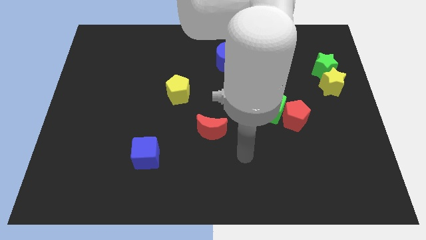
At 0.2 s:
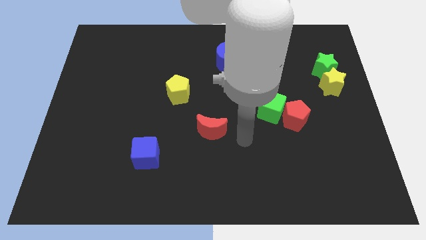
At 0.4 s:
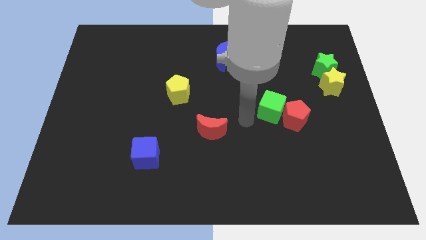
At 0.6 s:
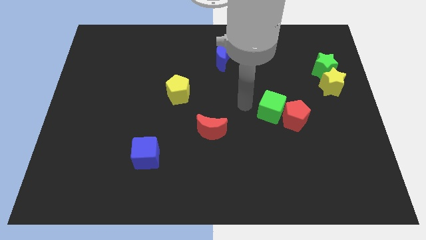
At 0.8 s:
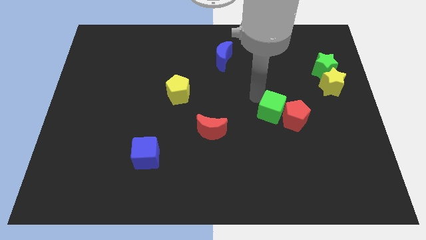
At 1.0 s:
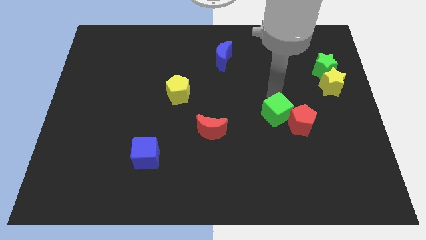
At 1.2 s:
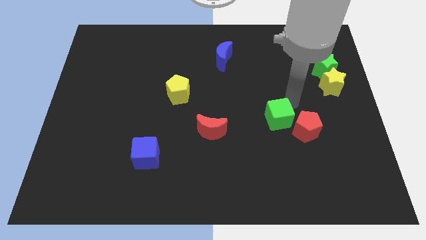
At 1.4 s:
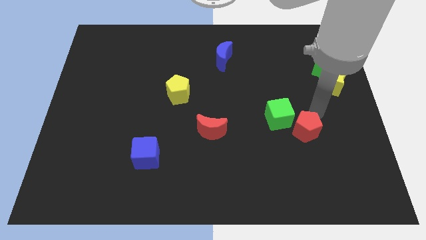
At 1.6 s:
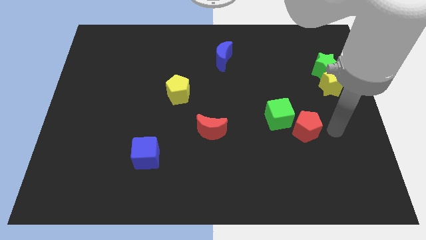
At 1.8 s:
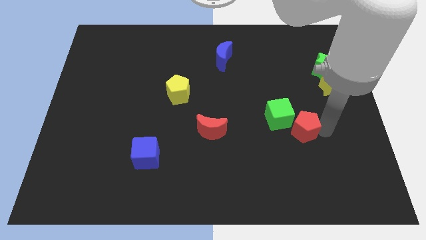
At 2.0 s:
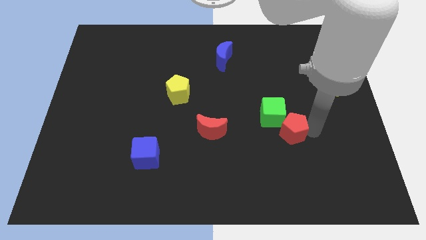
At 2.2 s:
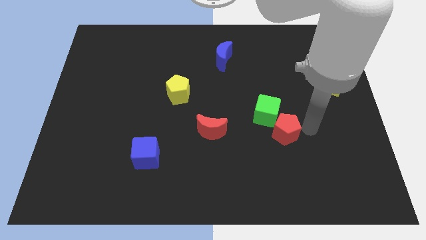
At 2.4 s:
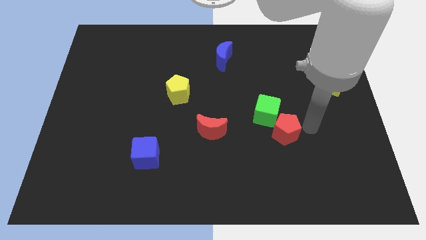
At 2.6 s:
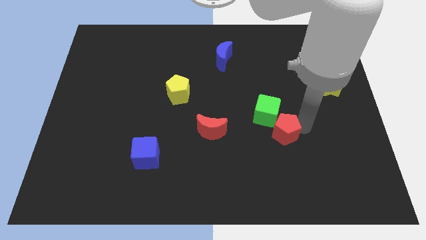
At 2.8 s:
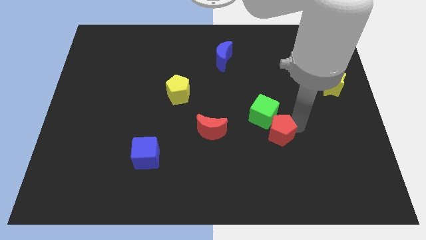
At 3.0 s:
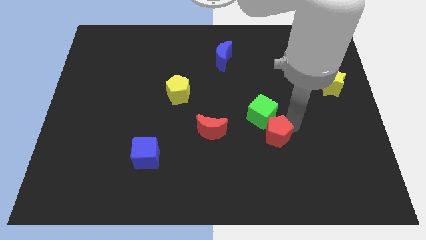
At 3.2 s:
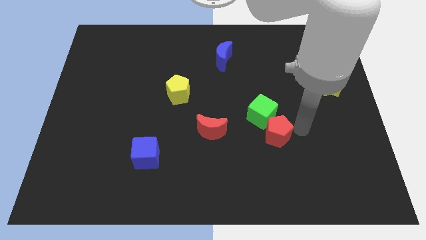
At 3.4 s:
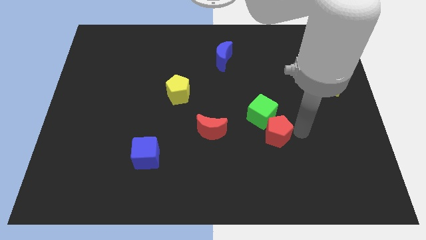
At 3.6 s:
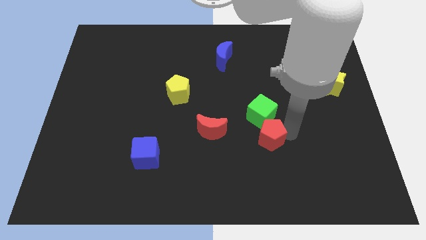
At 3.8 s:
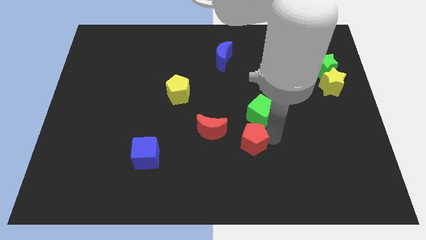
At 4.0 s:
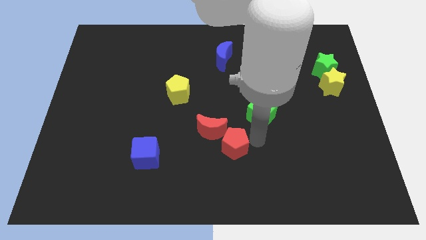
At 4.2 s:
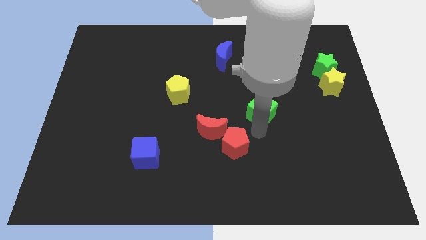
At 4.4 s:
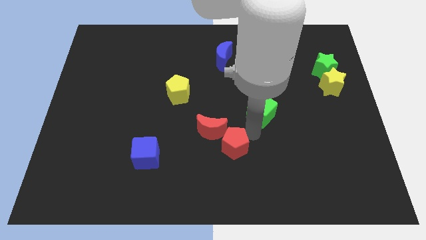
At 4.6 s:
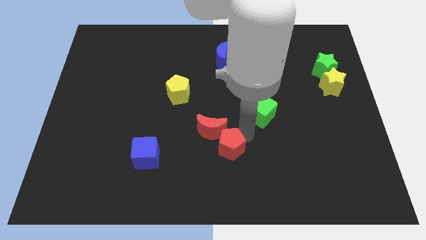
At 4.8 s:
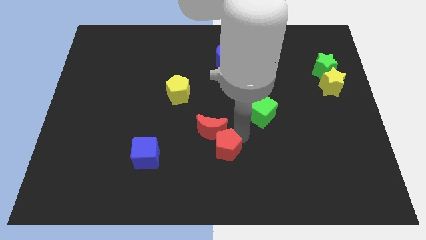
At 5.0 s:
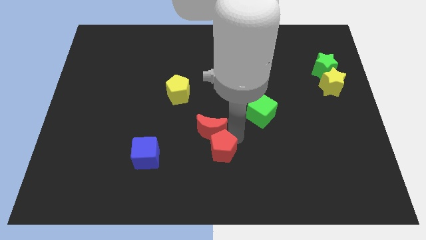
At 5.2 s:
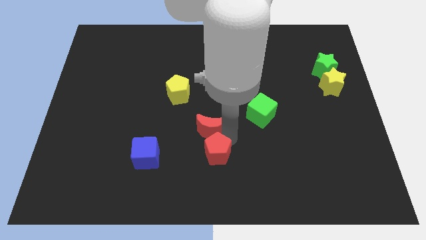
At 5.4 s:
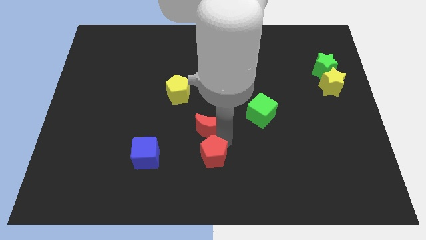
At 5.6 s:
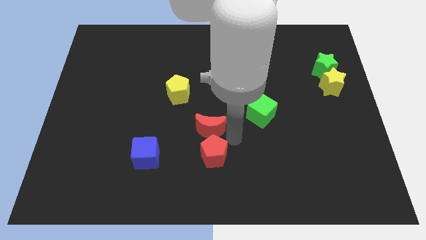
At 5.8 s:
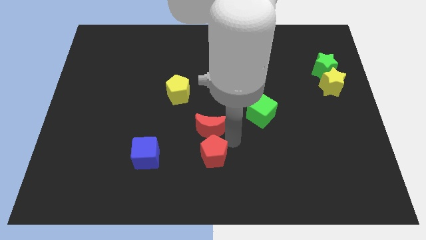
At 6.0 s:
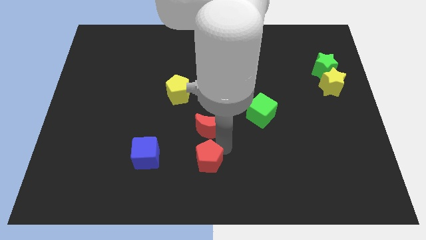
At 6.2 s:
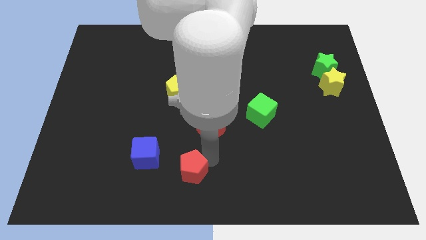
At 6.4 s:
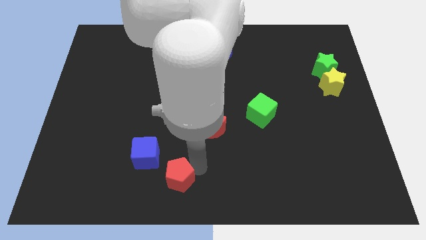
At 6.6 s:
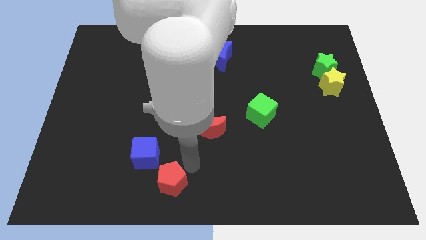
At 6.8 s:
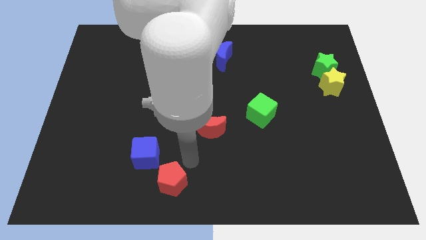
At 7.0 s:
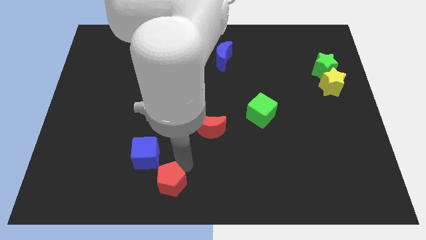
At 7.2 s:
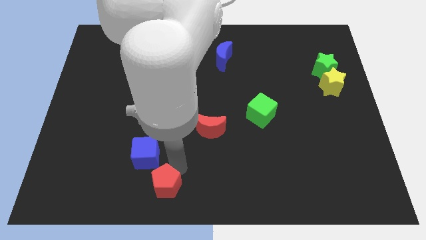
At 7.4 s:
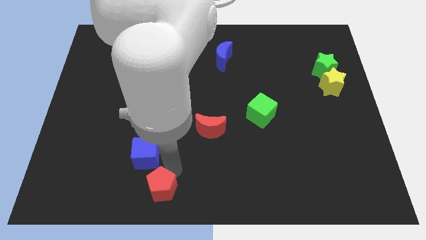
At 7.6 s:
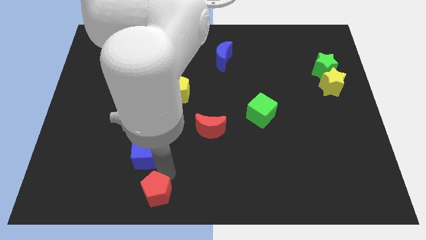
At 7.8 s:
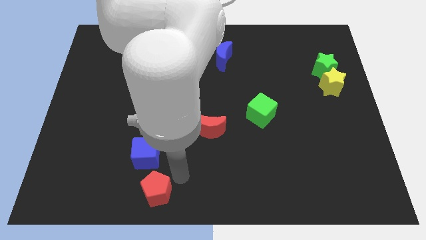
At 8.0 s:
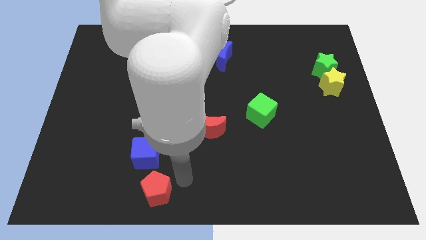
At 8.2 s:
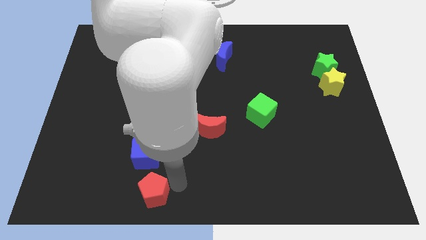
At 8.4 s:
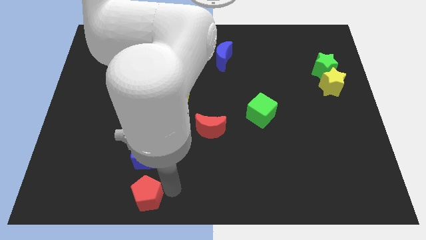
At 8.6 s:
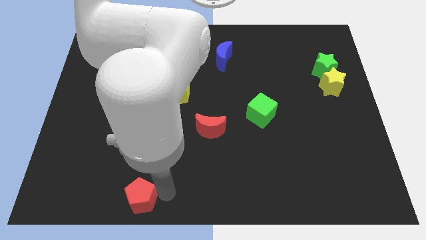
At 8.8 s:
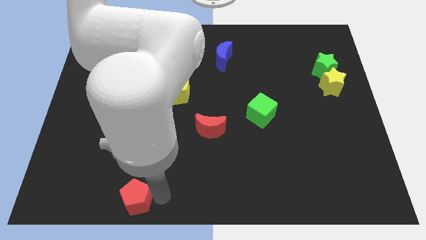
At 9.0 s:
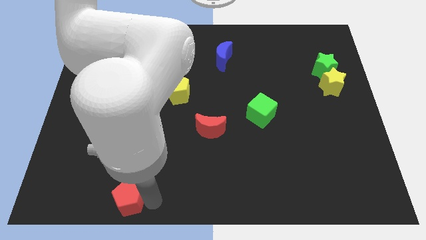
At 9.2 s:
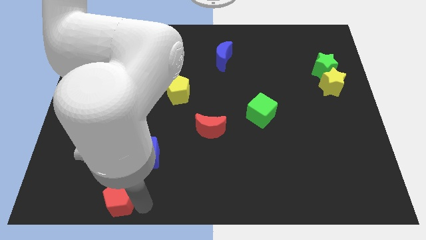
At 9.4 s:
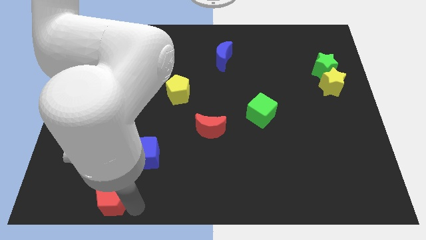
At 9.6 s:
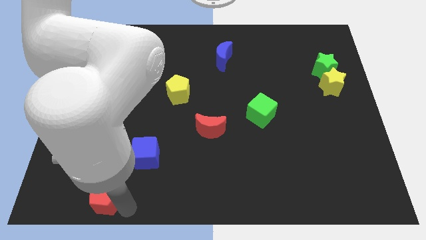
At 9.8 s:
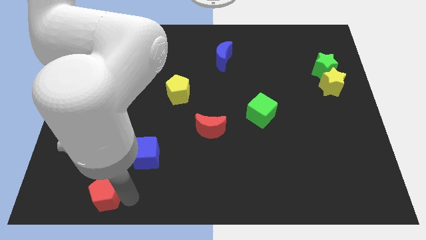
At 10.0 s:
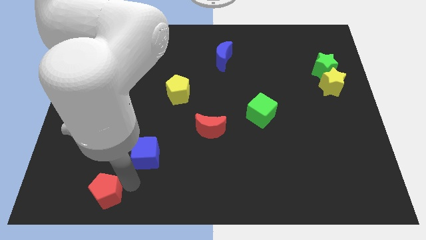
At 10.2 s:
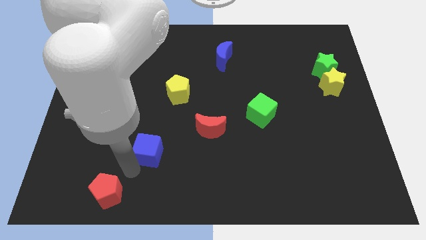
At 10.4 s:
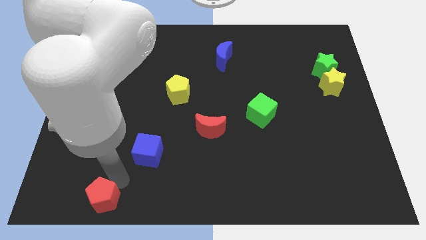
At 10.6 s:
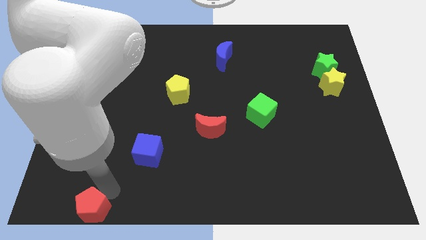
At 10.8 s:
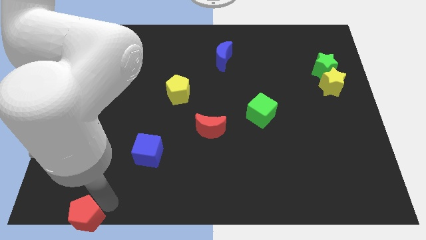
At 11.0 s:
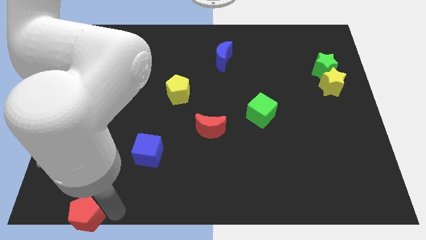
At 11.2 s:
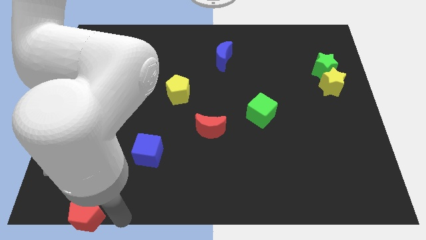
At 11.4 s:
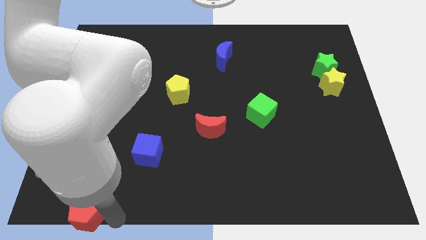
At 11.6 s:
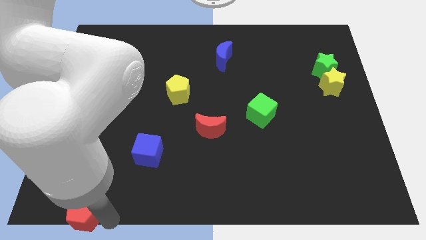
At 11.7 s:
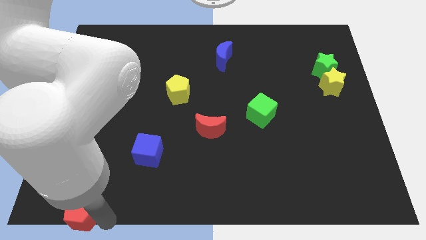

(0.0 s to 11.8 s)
slide the red pentagon to the bottom left corner
